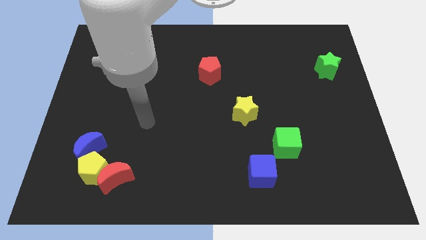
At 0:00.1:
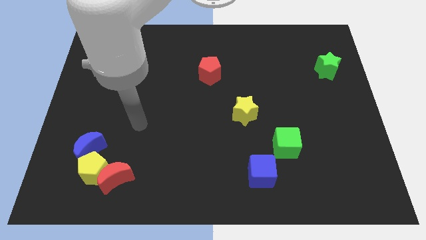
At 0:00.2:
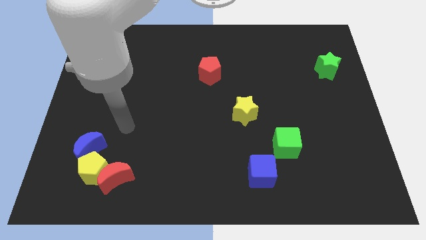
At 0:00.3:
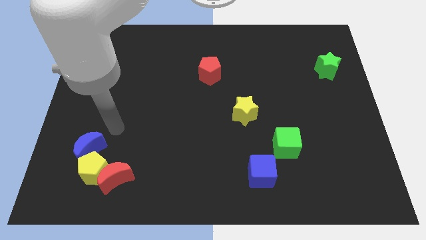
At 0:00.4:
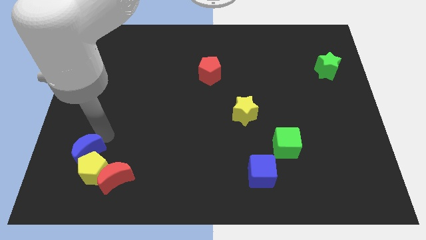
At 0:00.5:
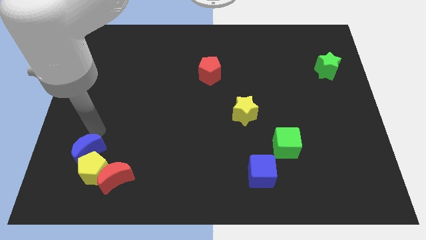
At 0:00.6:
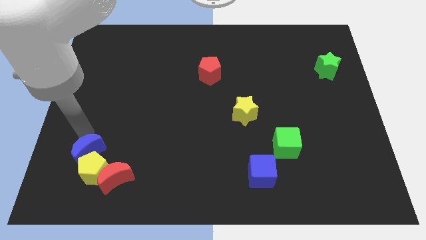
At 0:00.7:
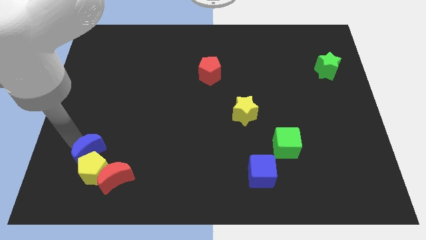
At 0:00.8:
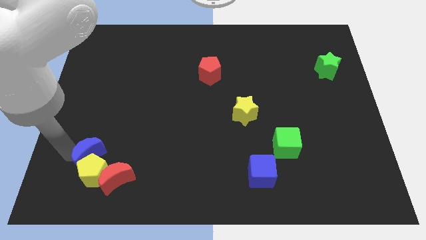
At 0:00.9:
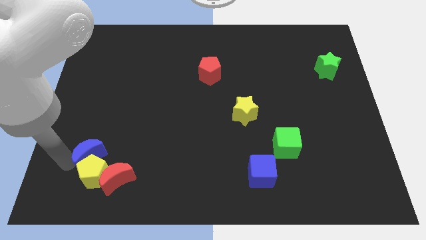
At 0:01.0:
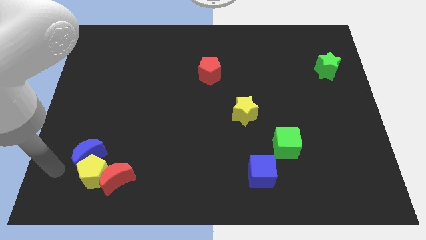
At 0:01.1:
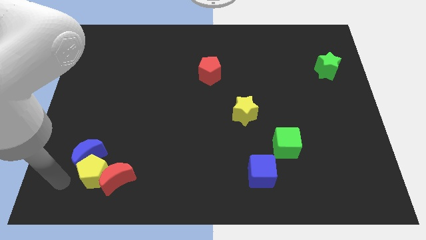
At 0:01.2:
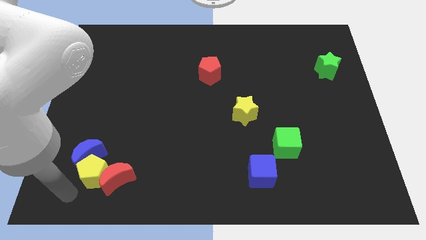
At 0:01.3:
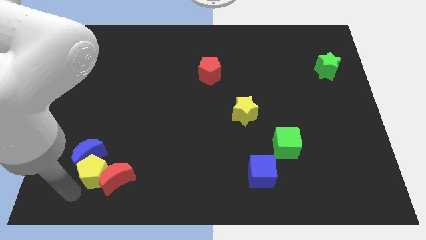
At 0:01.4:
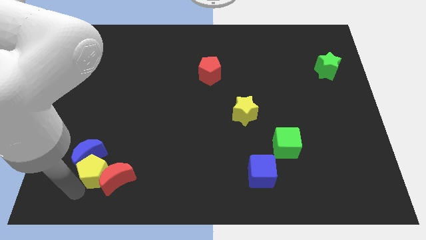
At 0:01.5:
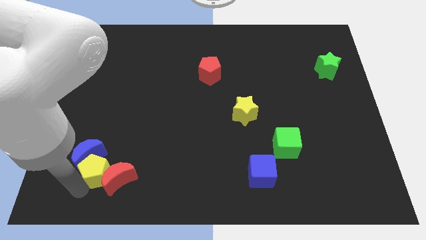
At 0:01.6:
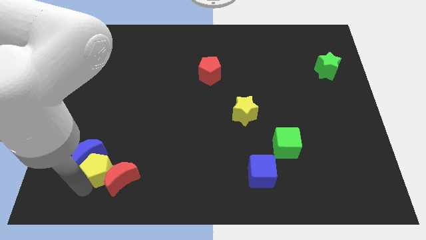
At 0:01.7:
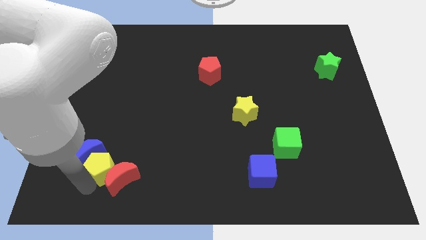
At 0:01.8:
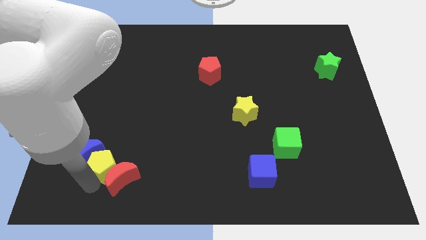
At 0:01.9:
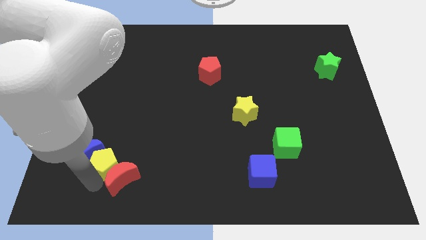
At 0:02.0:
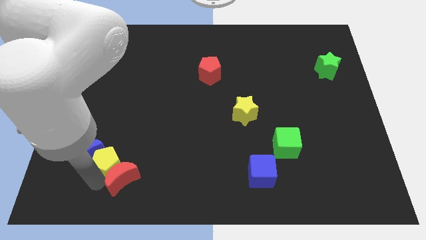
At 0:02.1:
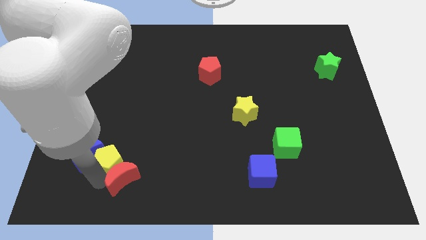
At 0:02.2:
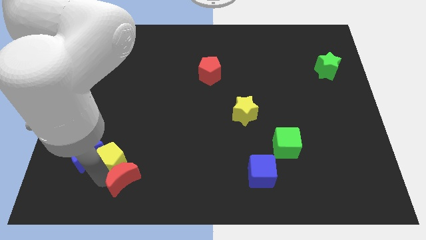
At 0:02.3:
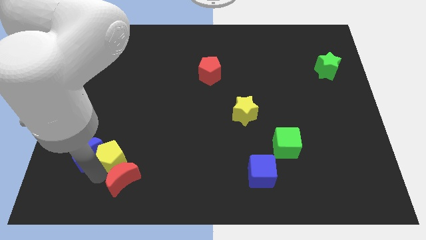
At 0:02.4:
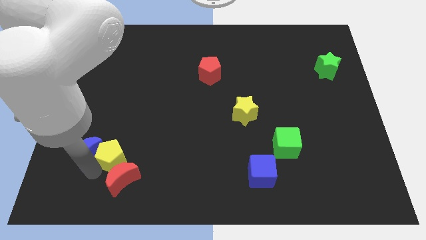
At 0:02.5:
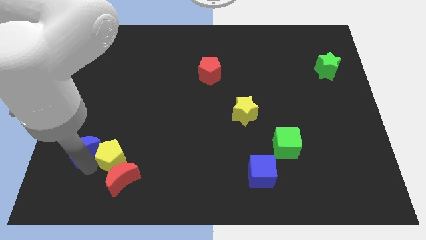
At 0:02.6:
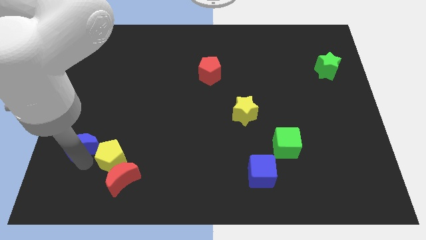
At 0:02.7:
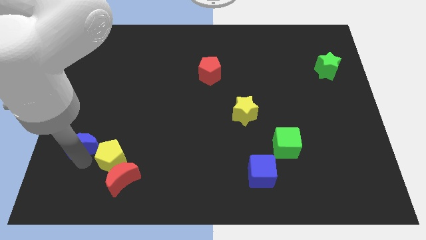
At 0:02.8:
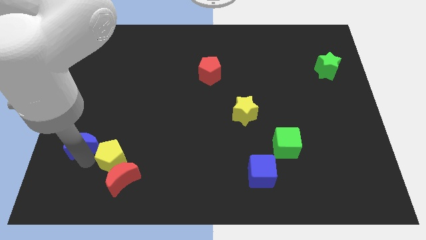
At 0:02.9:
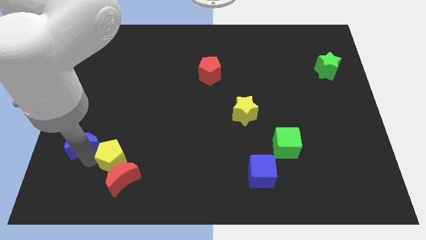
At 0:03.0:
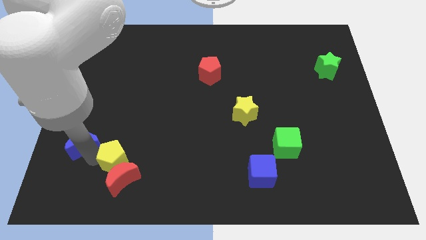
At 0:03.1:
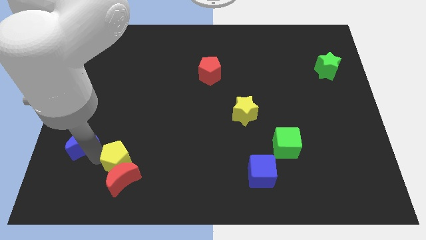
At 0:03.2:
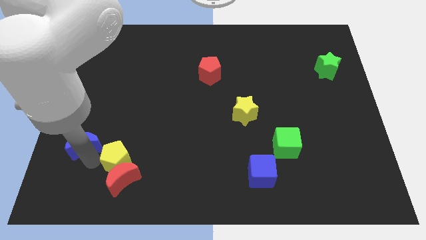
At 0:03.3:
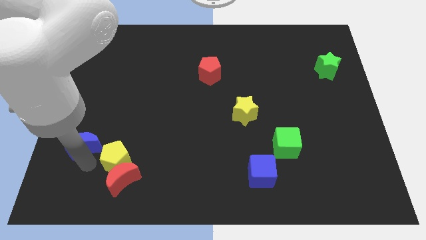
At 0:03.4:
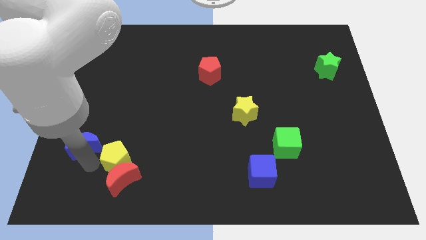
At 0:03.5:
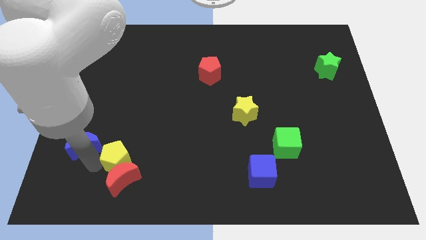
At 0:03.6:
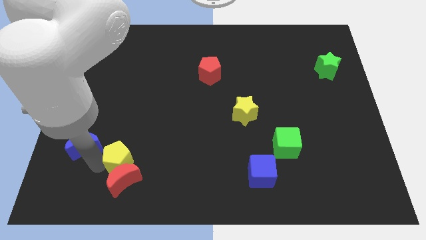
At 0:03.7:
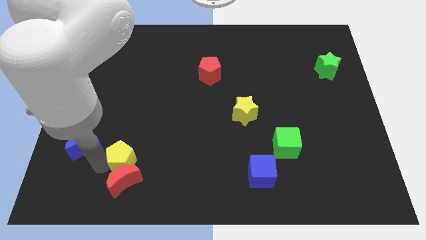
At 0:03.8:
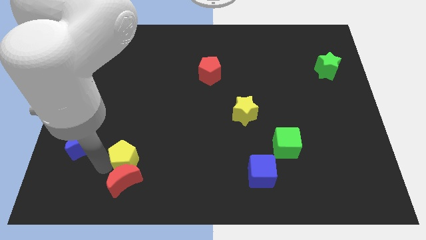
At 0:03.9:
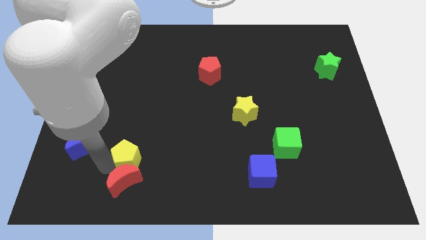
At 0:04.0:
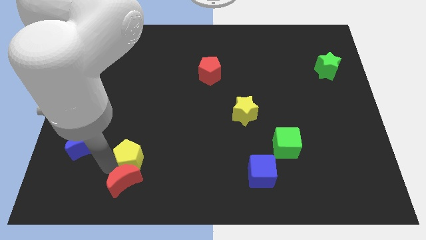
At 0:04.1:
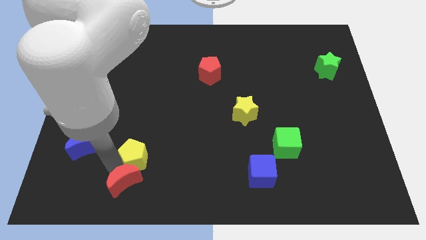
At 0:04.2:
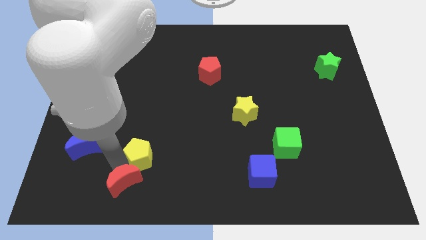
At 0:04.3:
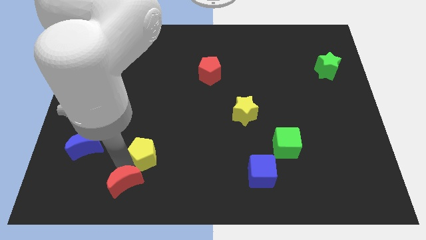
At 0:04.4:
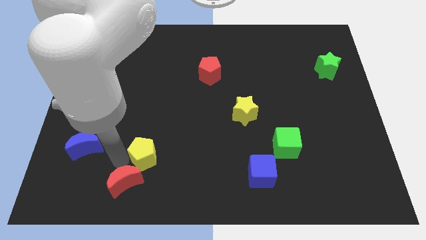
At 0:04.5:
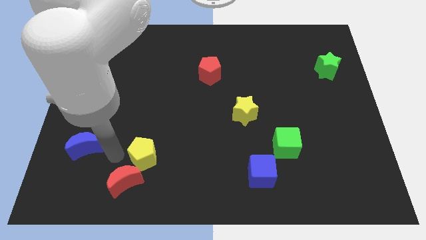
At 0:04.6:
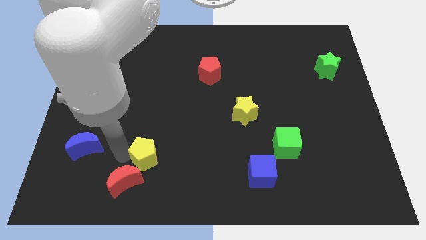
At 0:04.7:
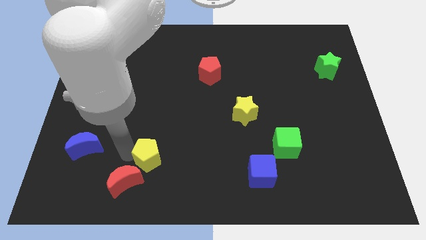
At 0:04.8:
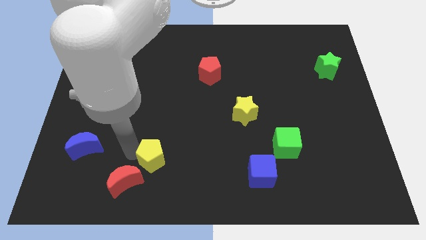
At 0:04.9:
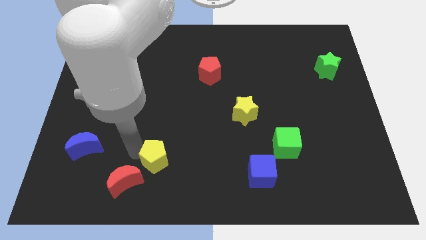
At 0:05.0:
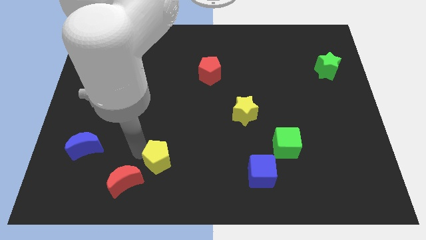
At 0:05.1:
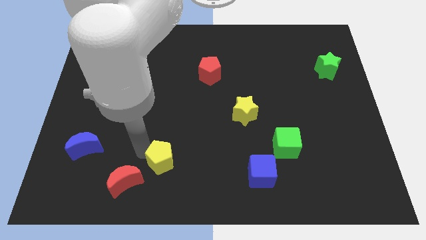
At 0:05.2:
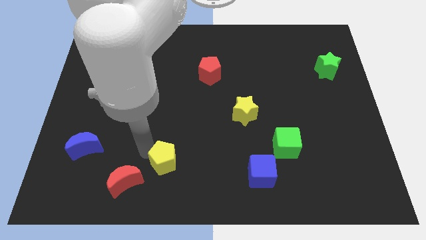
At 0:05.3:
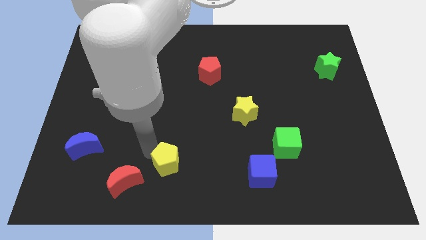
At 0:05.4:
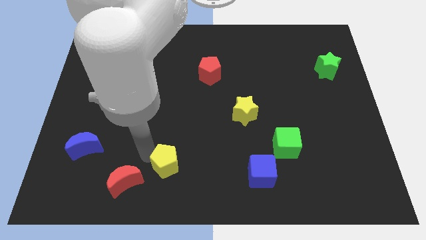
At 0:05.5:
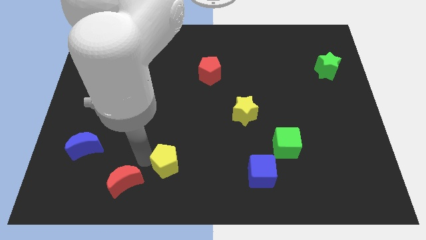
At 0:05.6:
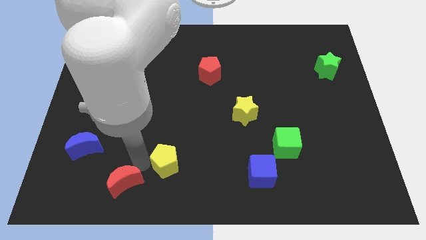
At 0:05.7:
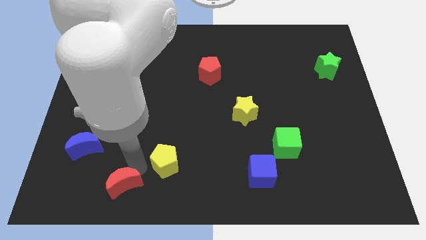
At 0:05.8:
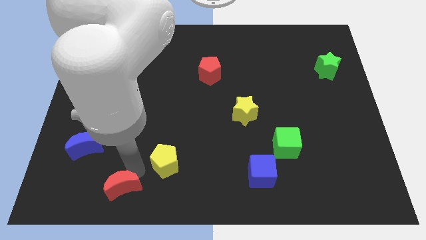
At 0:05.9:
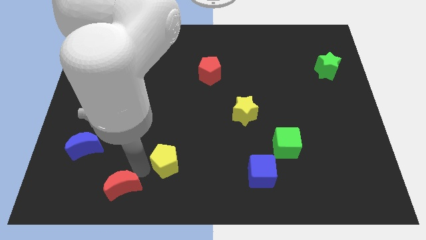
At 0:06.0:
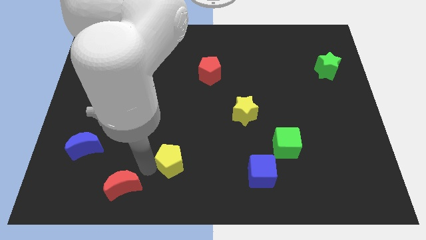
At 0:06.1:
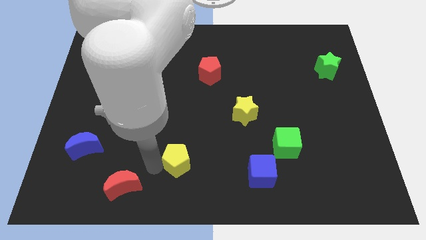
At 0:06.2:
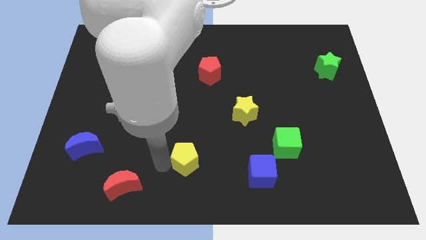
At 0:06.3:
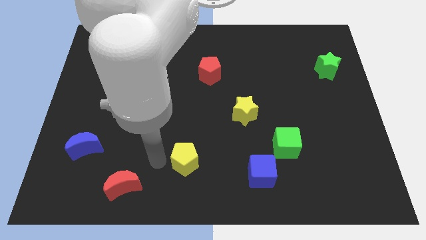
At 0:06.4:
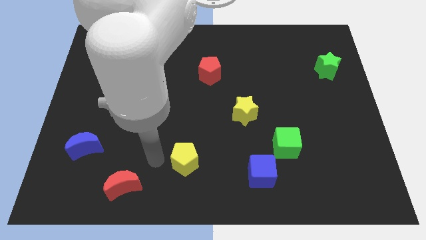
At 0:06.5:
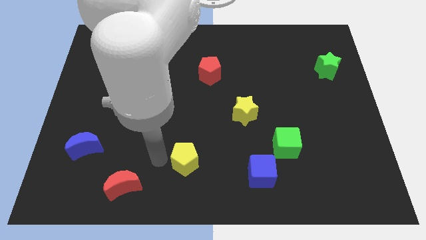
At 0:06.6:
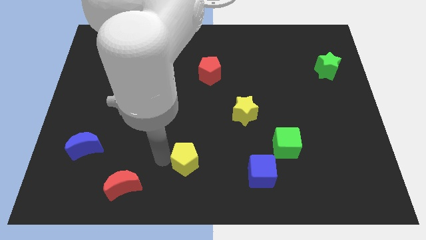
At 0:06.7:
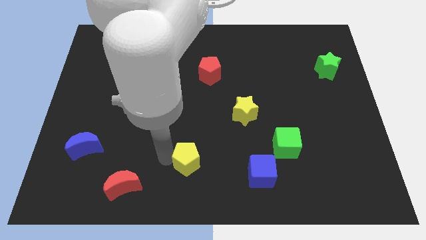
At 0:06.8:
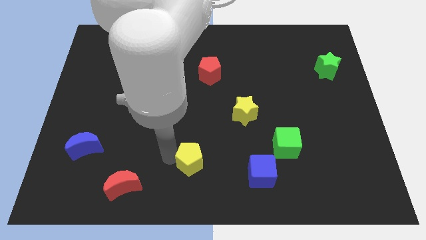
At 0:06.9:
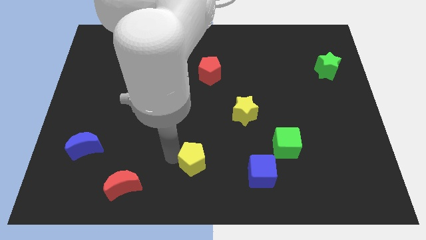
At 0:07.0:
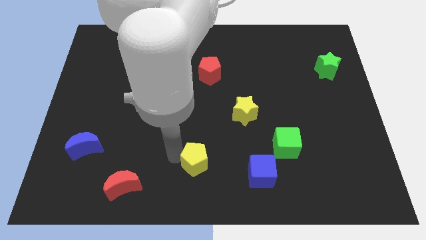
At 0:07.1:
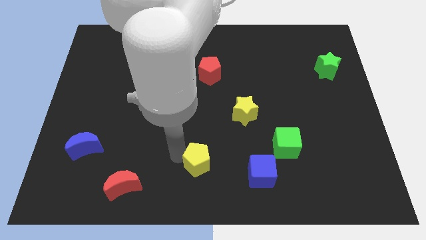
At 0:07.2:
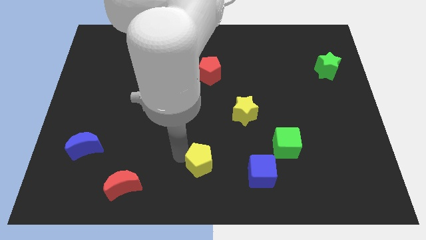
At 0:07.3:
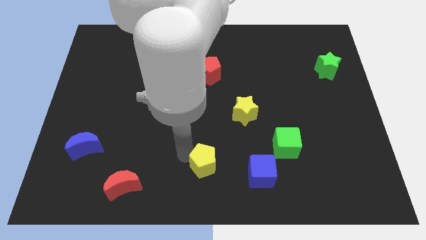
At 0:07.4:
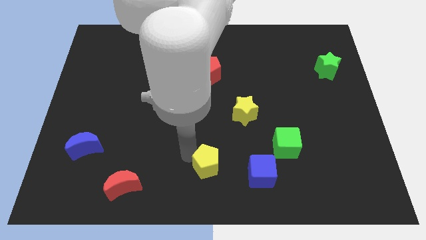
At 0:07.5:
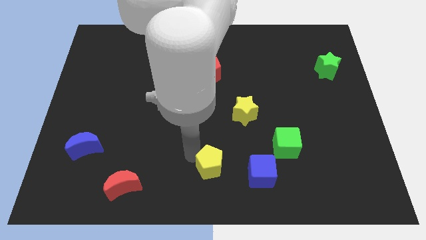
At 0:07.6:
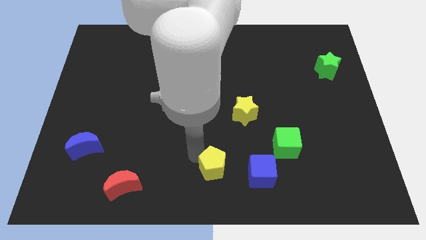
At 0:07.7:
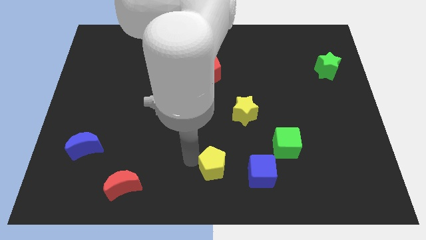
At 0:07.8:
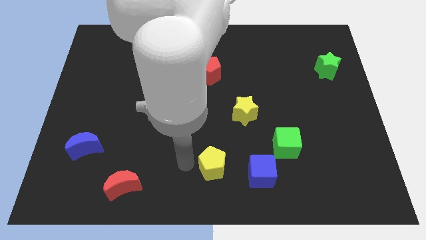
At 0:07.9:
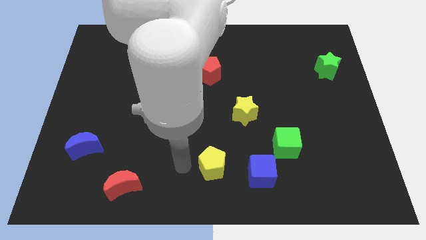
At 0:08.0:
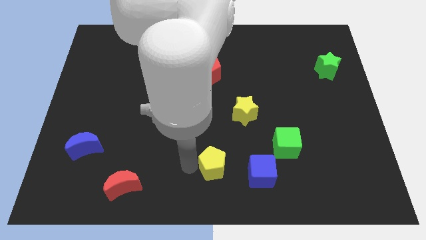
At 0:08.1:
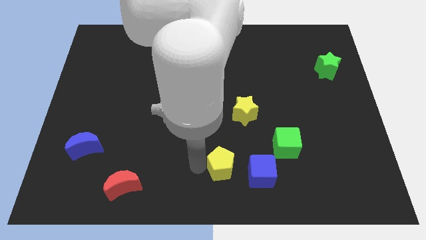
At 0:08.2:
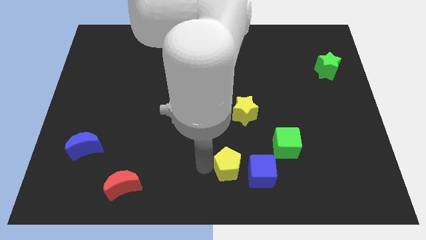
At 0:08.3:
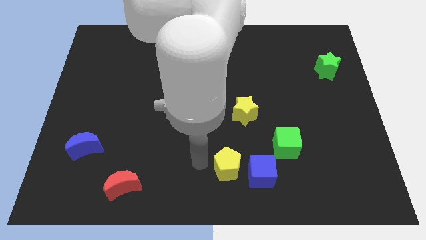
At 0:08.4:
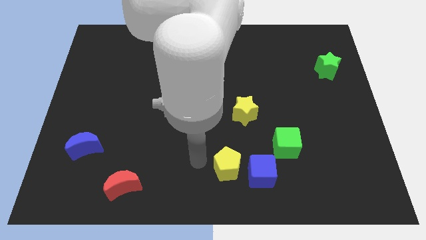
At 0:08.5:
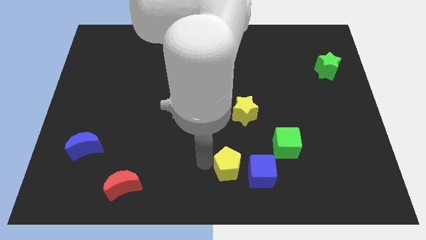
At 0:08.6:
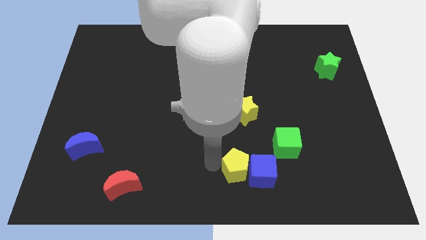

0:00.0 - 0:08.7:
move the yellow pentagon close to the blue cube
